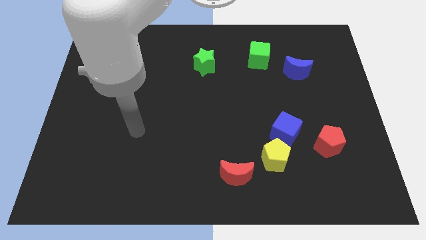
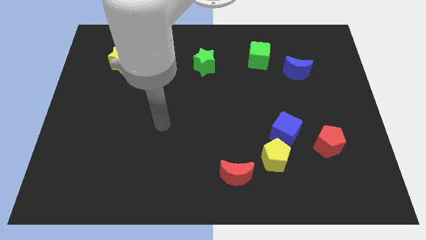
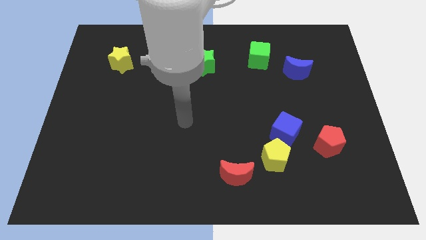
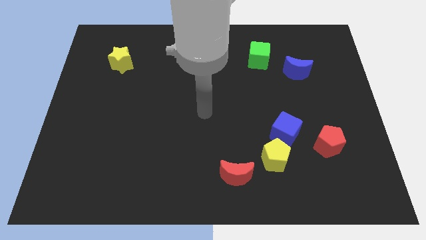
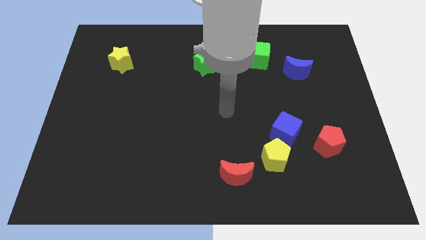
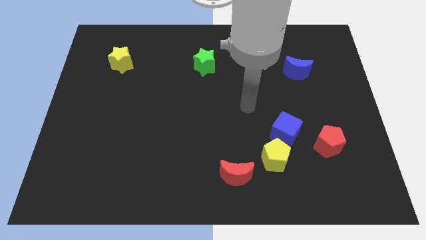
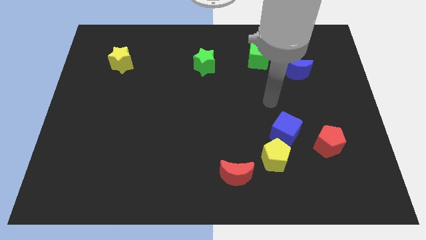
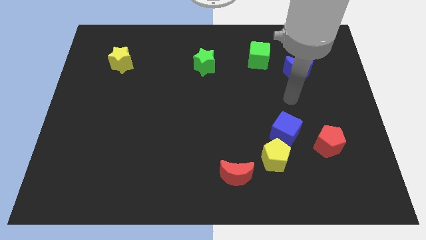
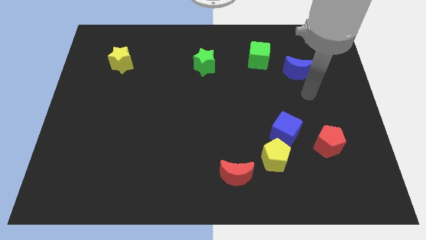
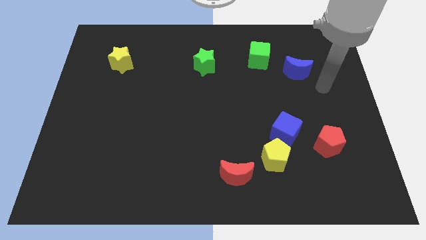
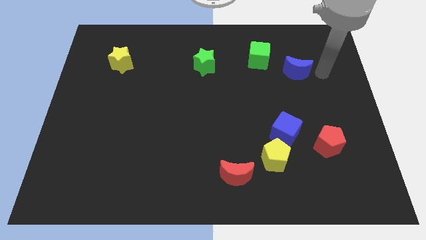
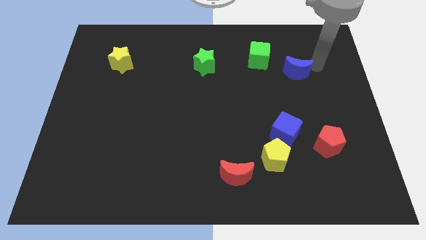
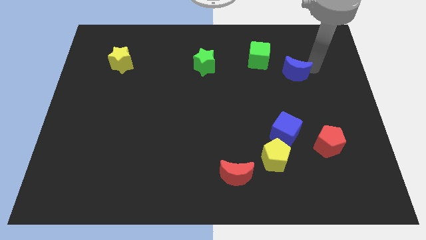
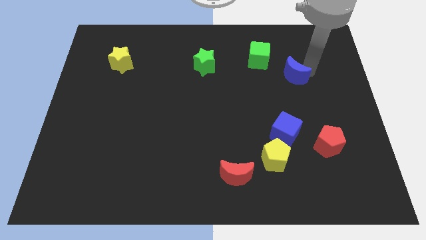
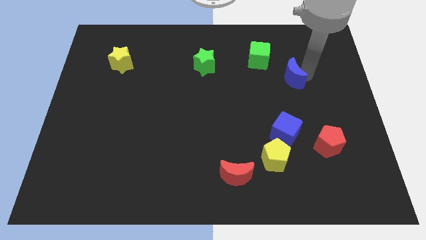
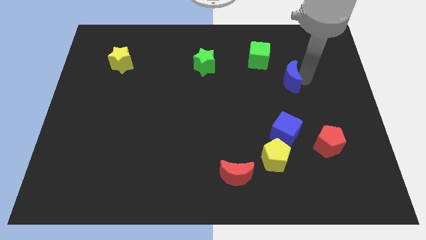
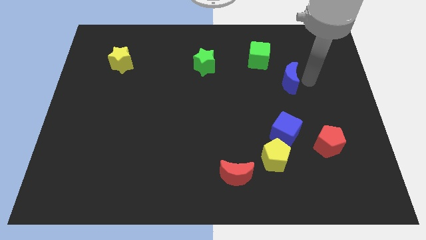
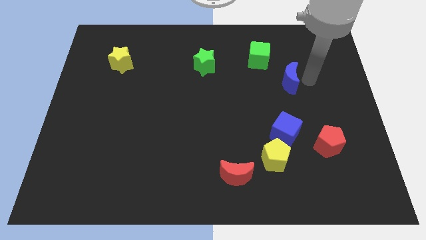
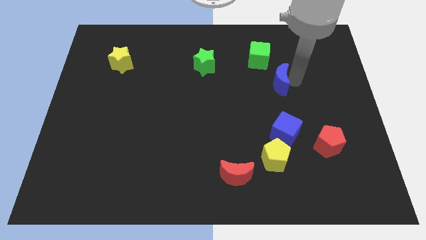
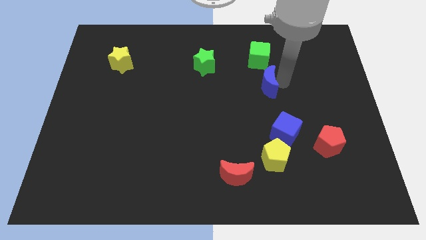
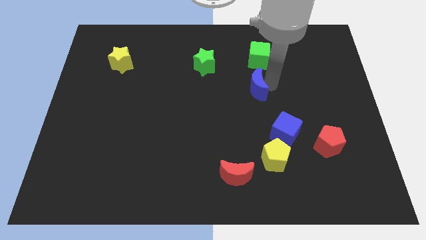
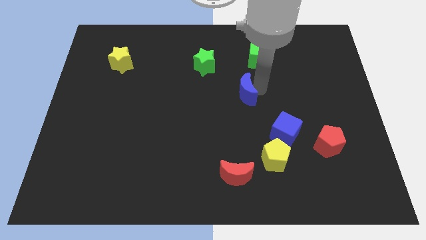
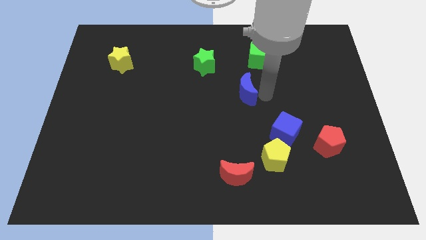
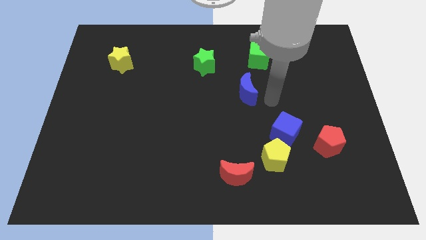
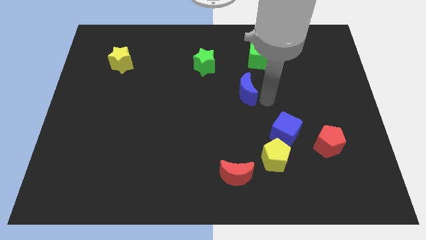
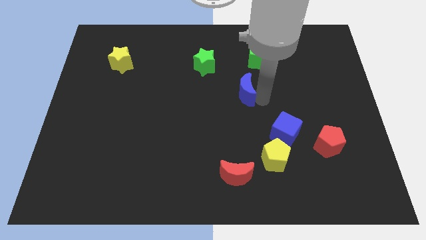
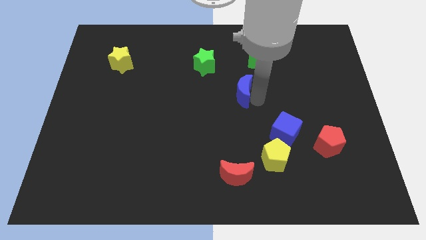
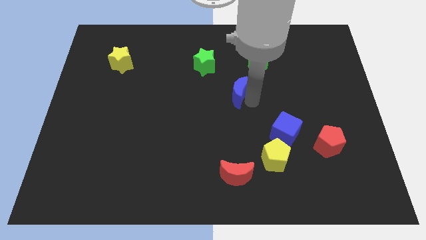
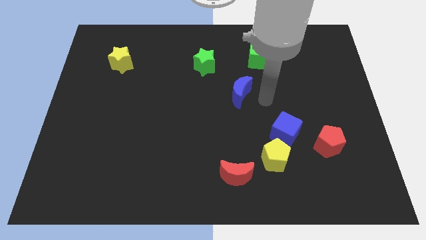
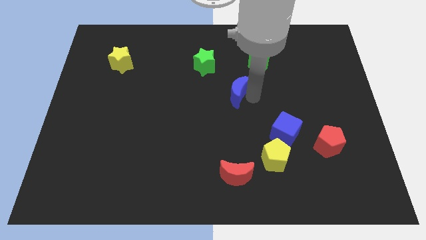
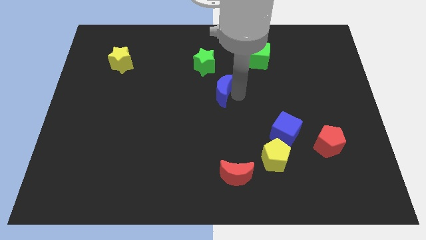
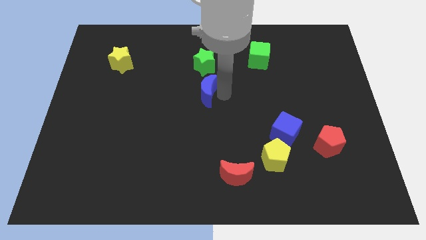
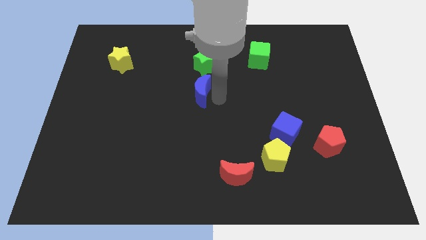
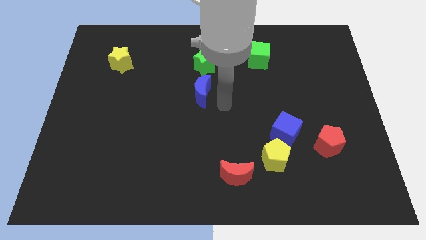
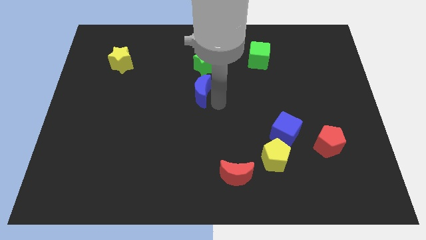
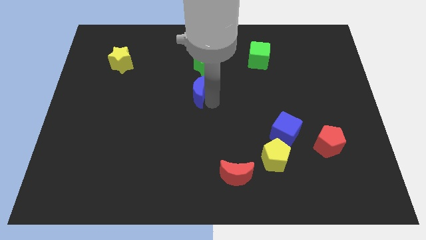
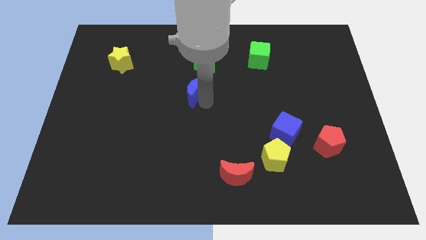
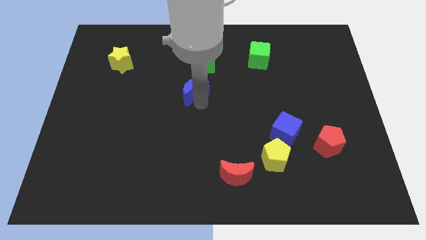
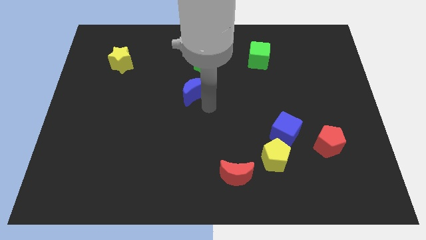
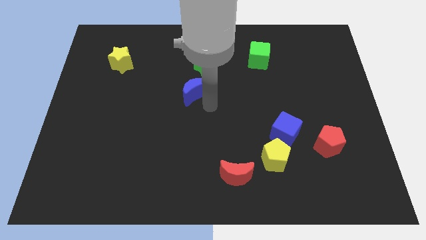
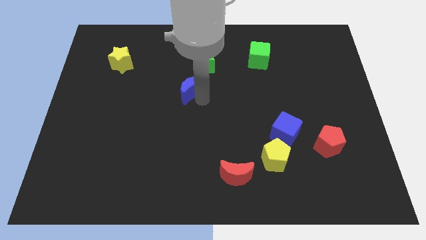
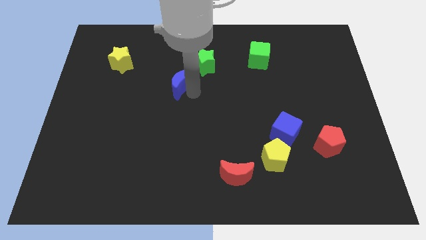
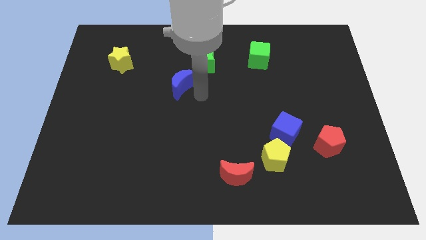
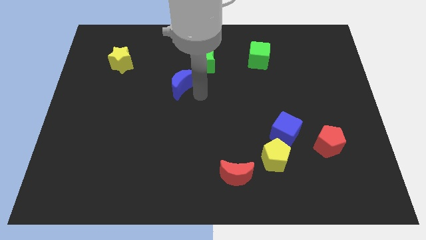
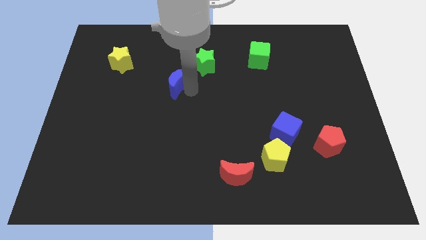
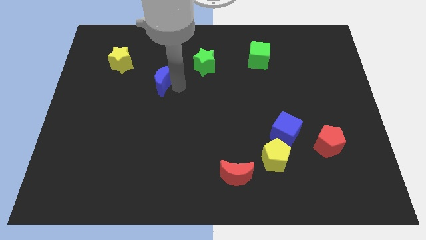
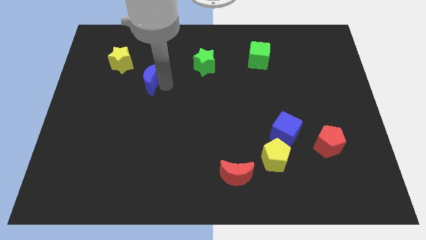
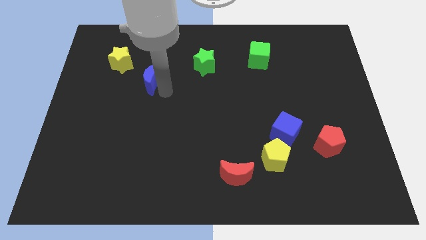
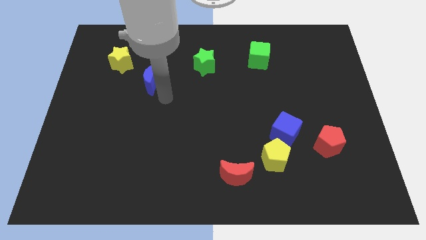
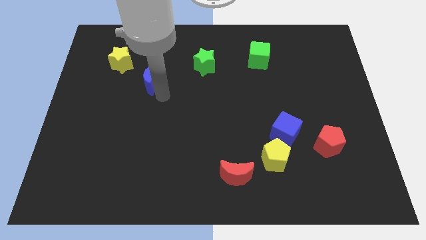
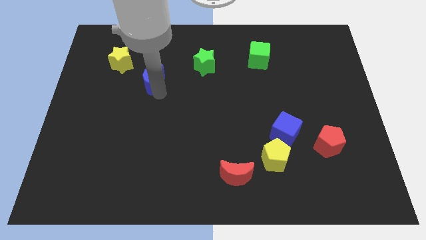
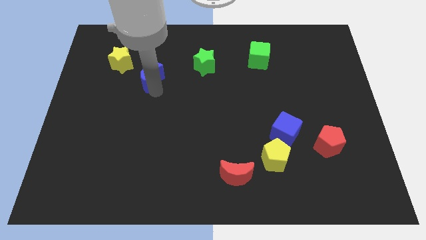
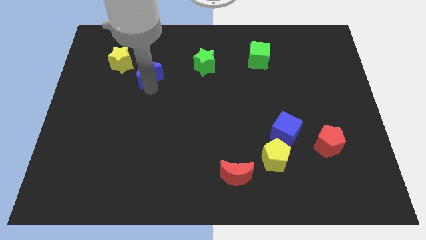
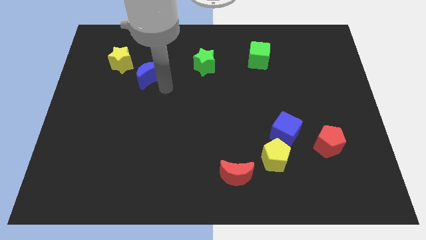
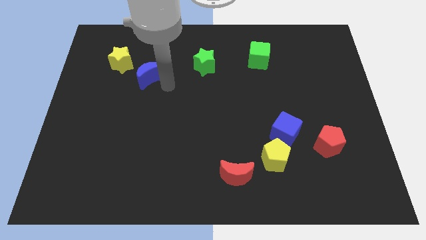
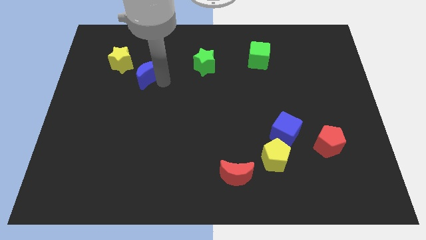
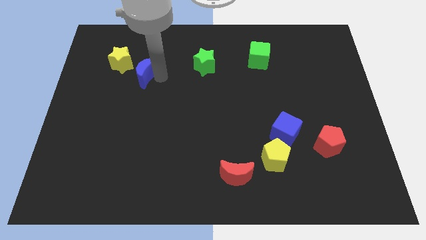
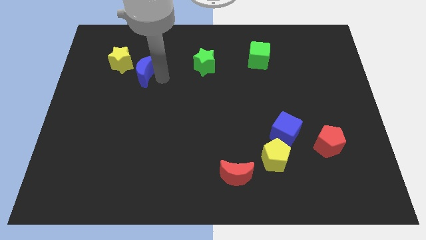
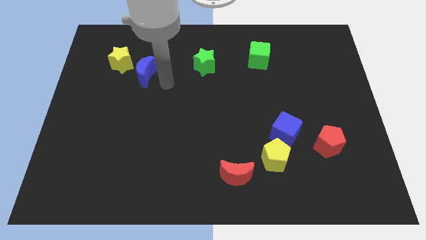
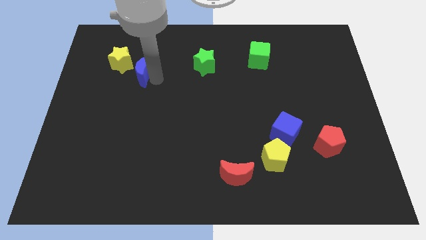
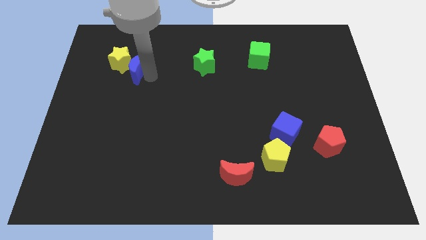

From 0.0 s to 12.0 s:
put the blue moon next to the yellow star

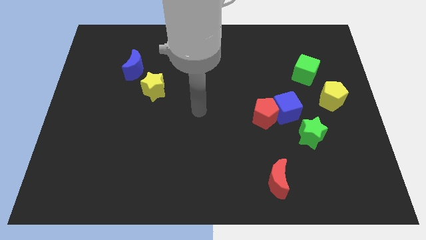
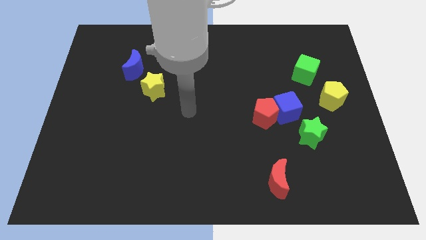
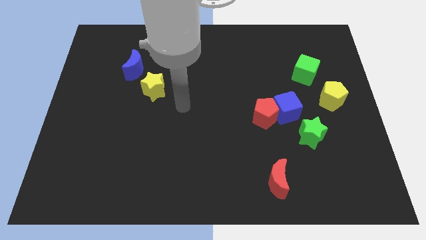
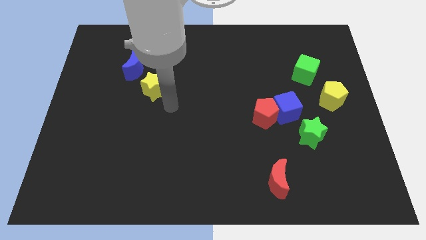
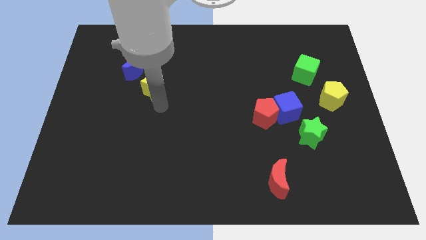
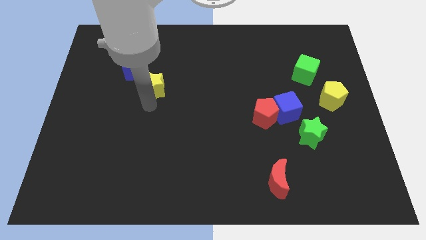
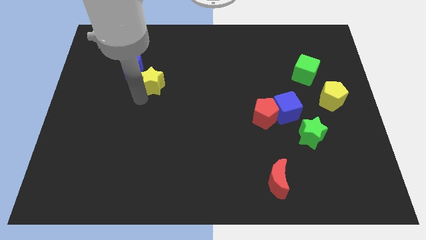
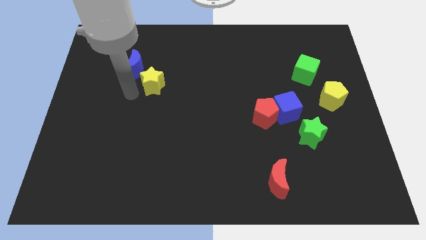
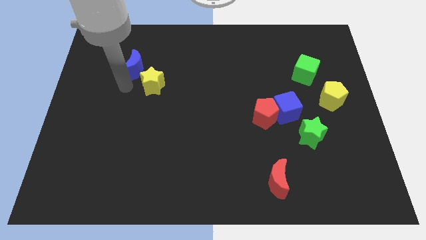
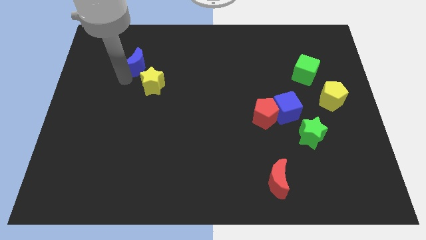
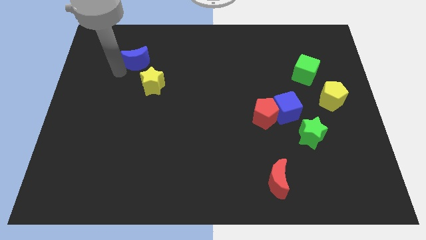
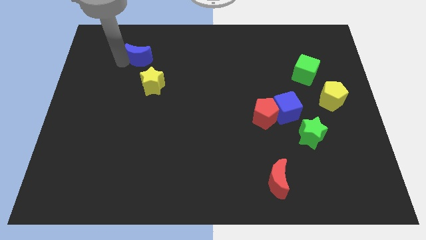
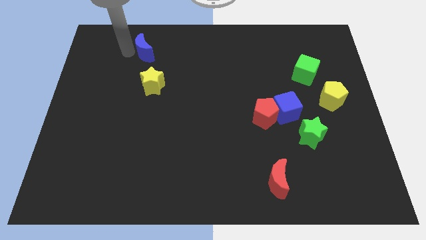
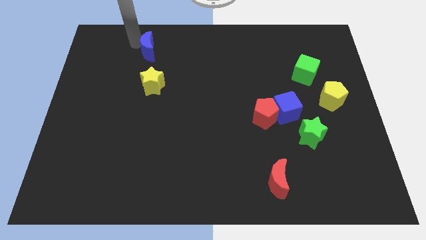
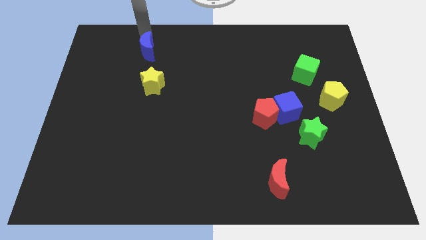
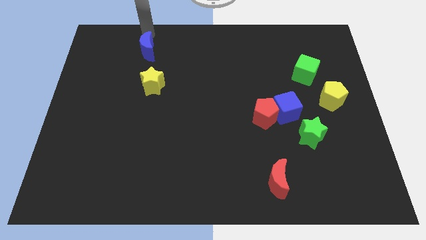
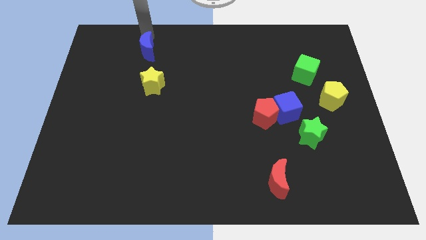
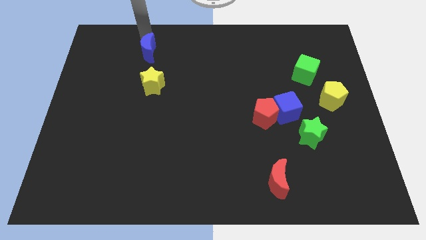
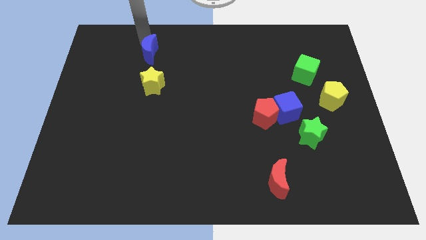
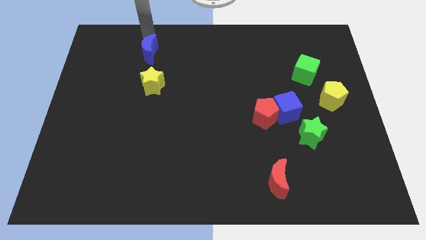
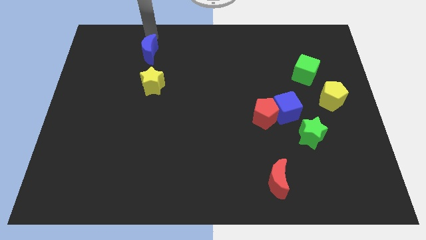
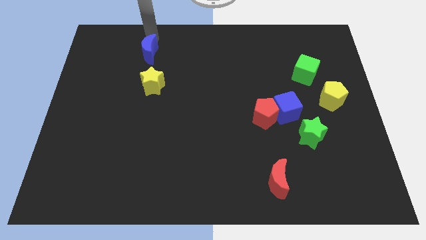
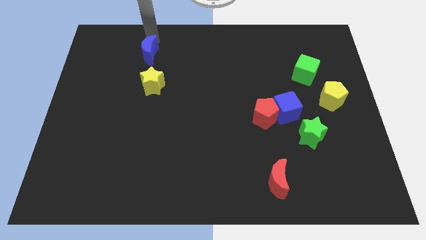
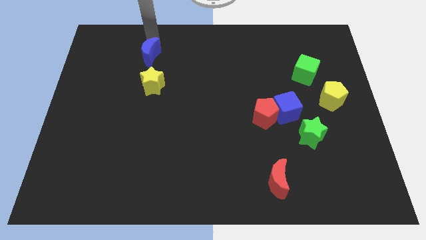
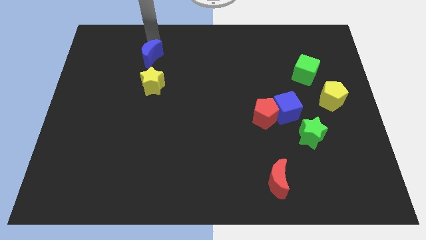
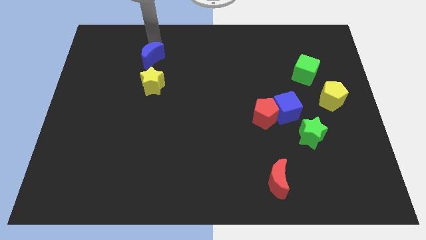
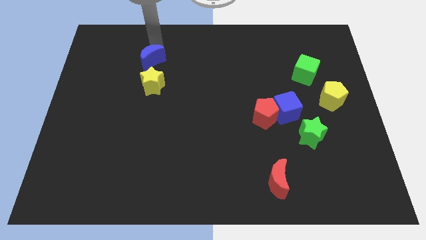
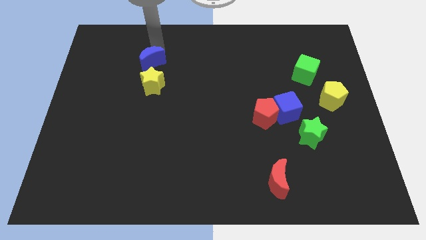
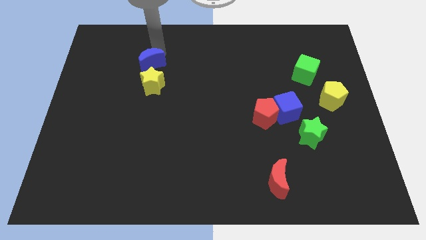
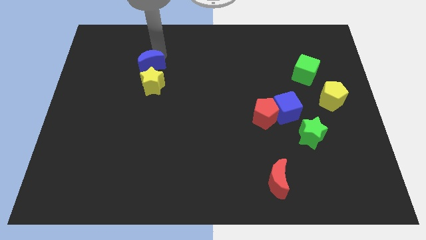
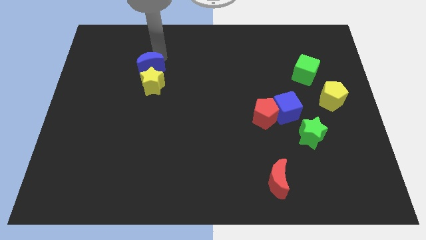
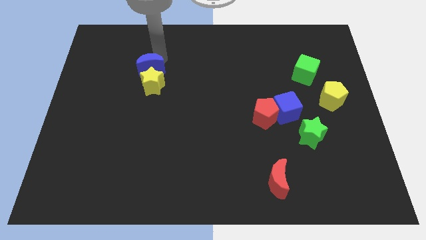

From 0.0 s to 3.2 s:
push the blue moon close to the yellow star
